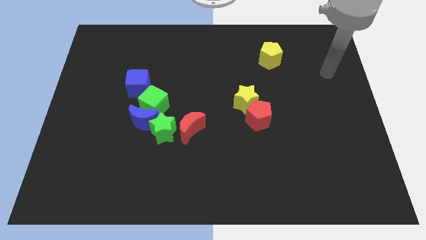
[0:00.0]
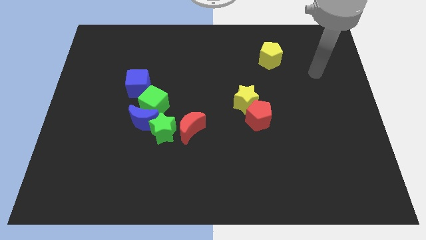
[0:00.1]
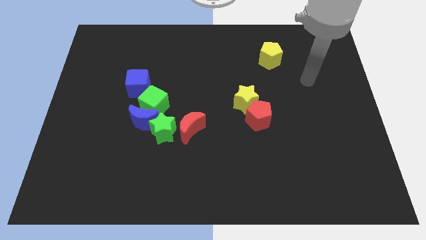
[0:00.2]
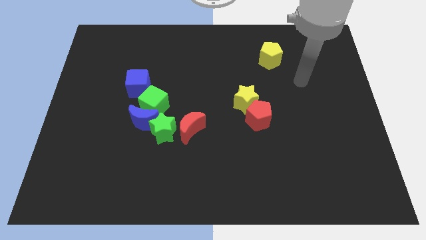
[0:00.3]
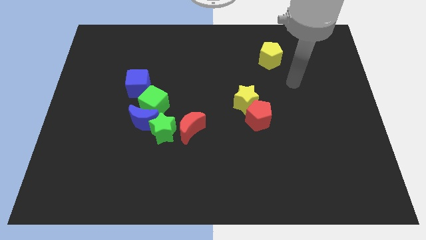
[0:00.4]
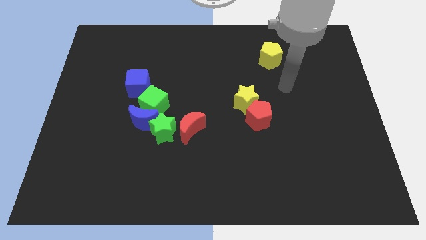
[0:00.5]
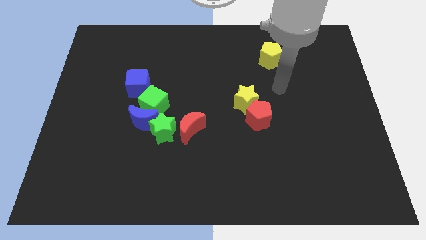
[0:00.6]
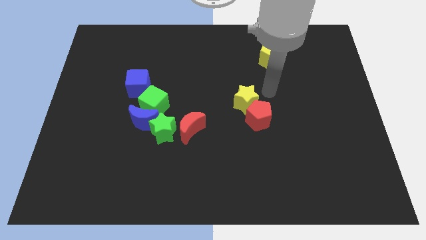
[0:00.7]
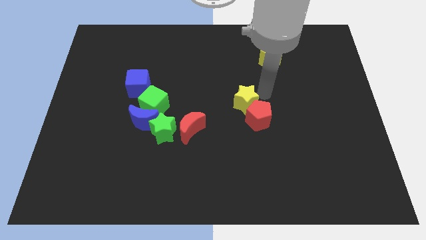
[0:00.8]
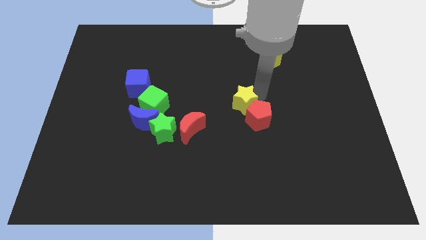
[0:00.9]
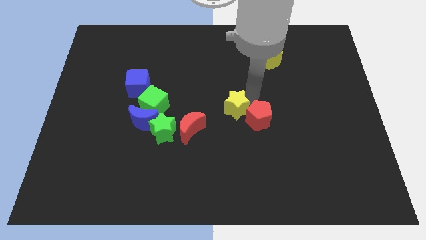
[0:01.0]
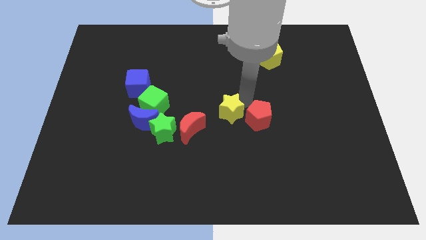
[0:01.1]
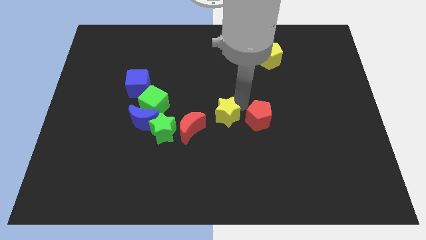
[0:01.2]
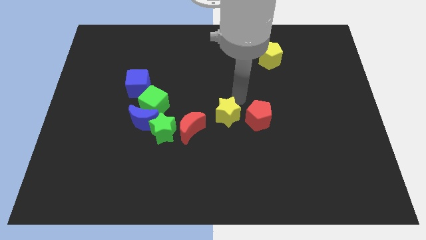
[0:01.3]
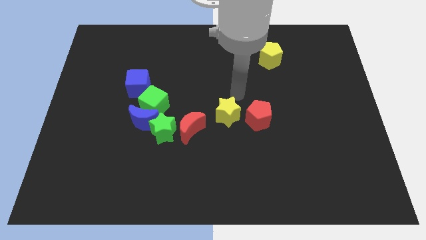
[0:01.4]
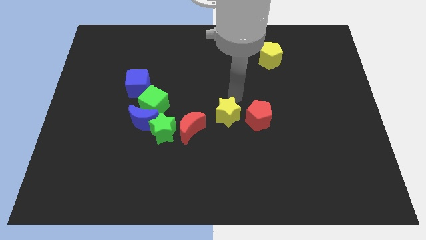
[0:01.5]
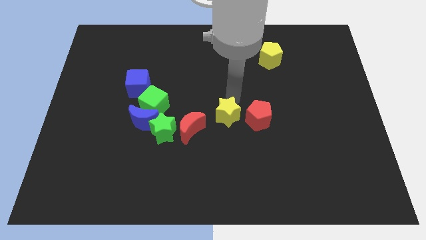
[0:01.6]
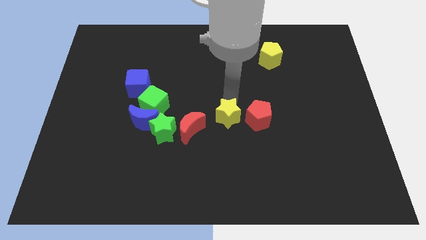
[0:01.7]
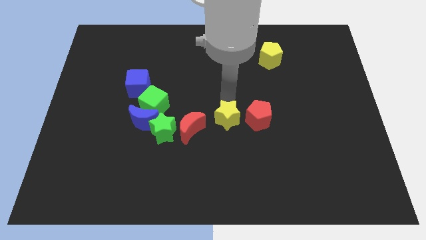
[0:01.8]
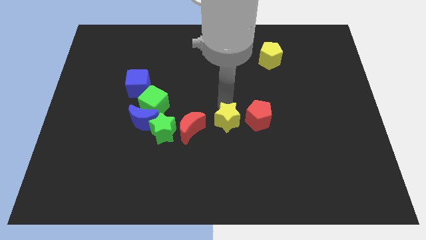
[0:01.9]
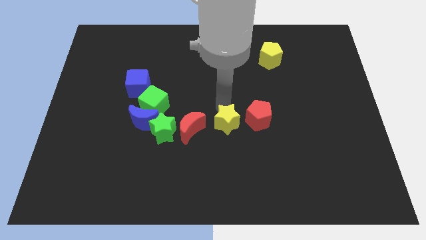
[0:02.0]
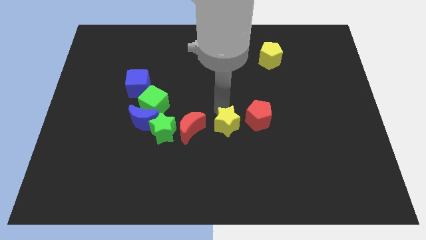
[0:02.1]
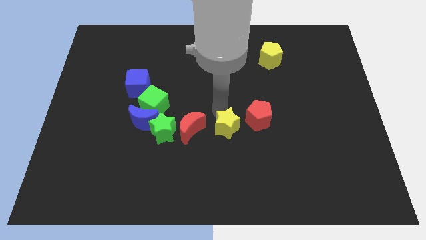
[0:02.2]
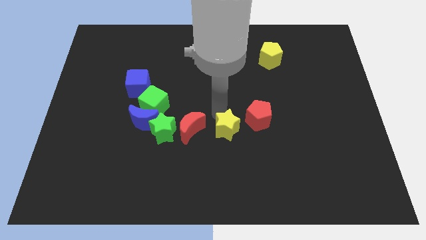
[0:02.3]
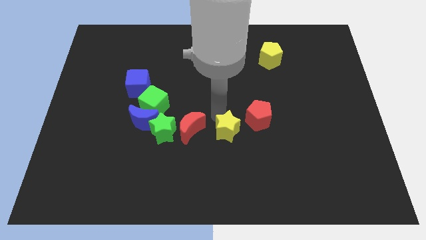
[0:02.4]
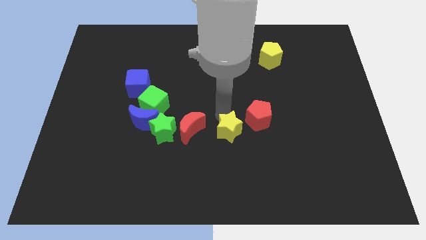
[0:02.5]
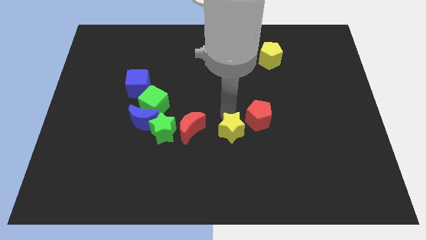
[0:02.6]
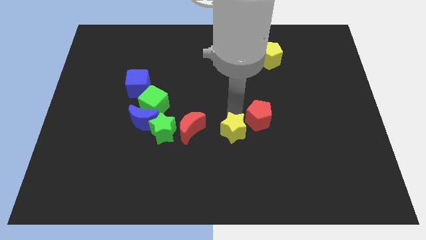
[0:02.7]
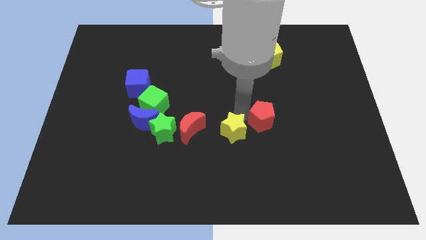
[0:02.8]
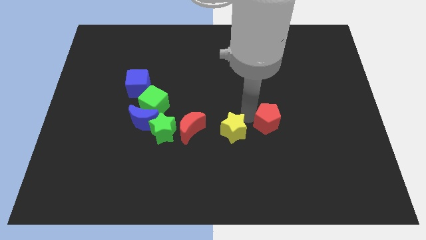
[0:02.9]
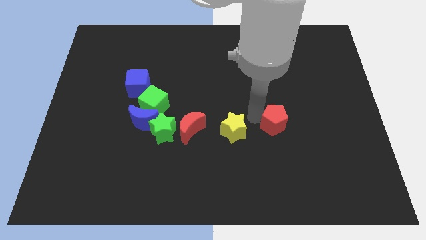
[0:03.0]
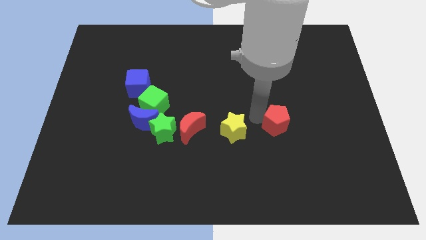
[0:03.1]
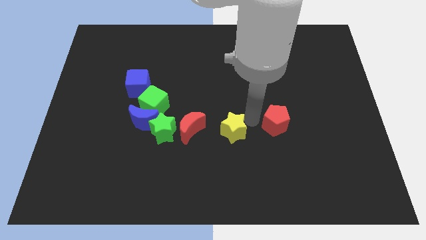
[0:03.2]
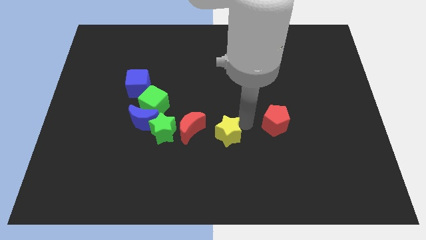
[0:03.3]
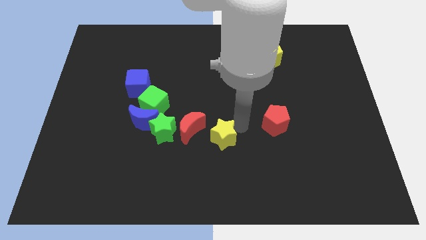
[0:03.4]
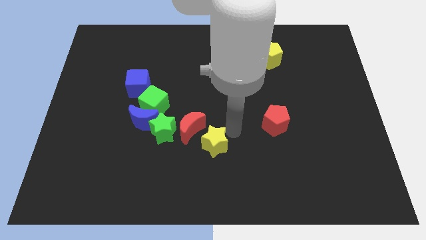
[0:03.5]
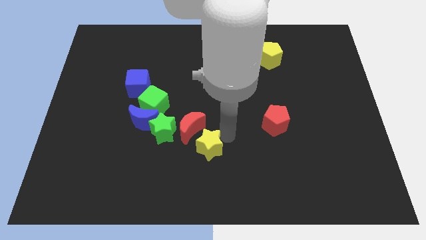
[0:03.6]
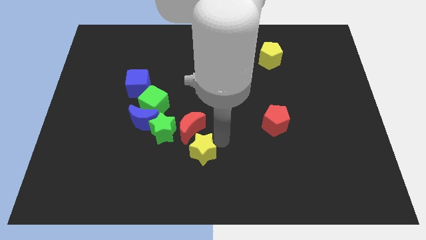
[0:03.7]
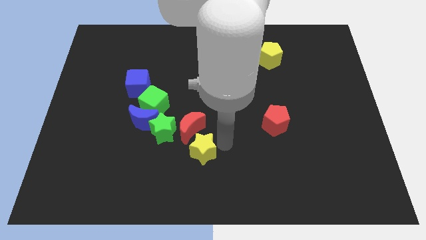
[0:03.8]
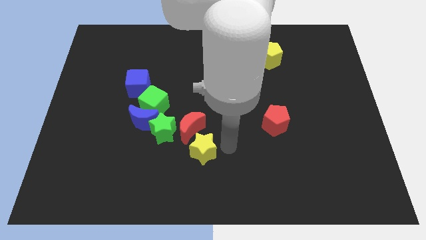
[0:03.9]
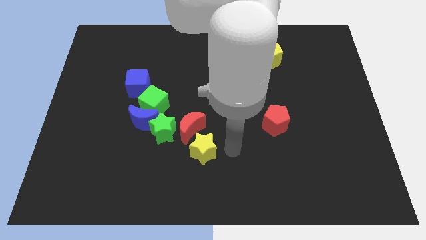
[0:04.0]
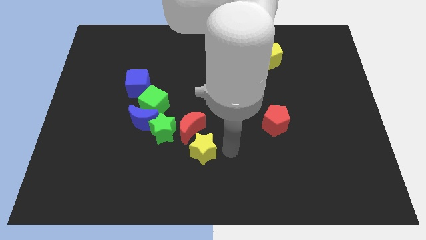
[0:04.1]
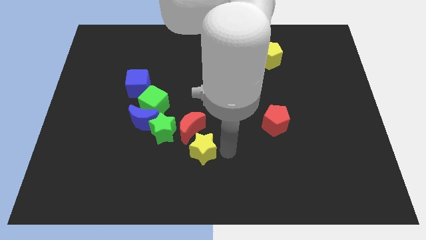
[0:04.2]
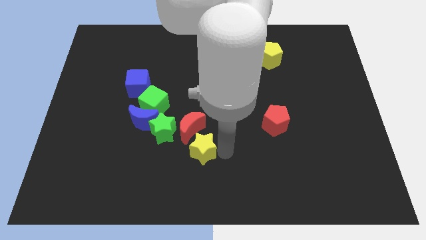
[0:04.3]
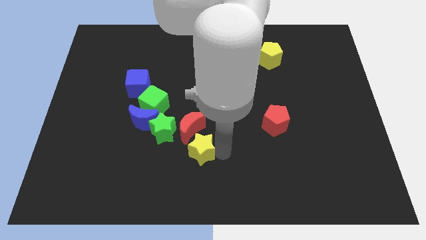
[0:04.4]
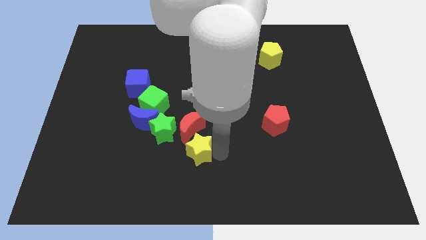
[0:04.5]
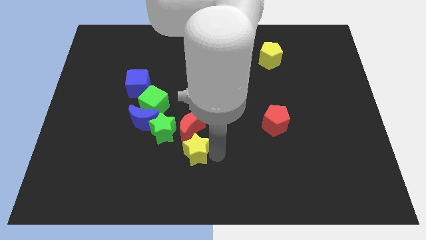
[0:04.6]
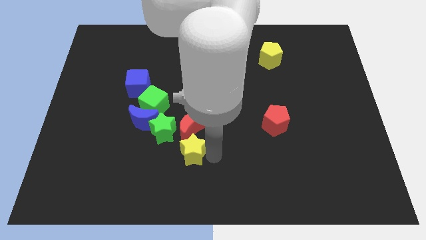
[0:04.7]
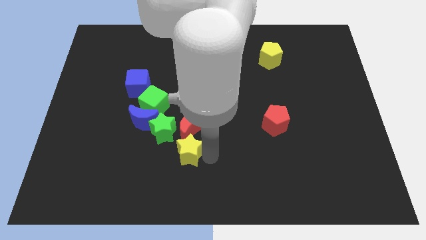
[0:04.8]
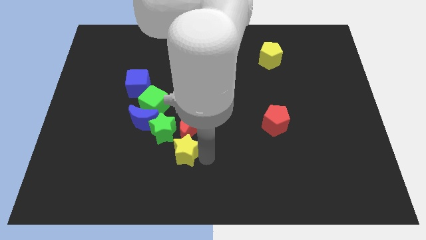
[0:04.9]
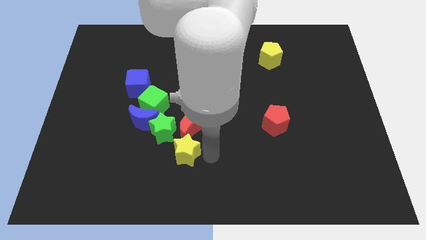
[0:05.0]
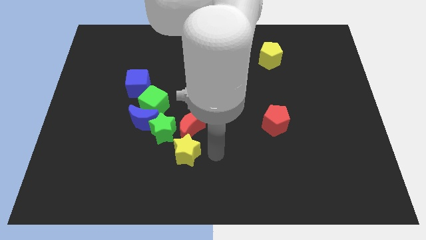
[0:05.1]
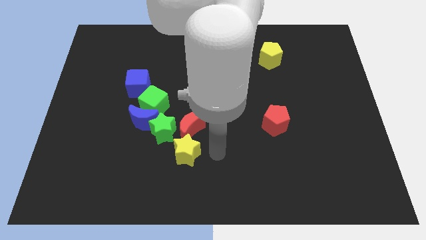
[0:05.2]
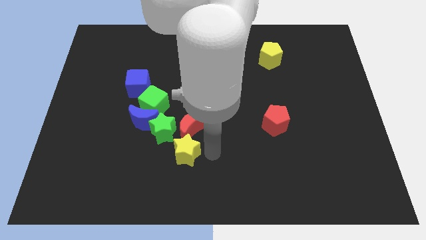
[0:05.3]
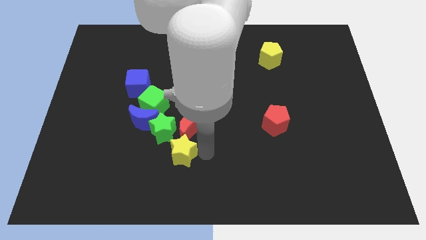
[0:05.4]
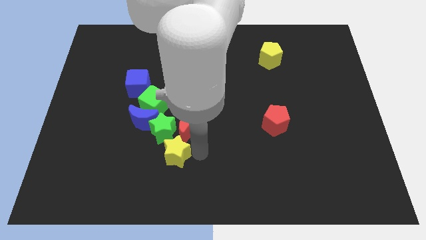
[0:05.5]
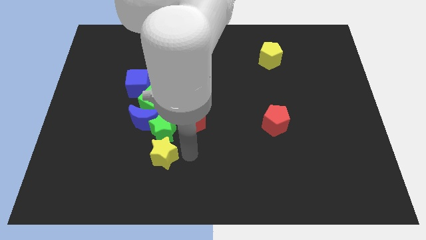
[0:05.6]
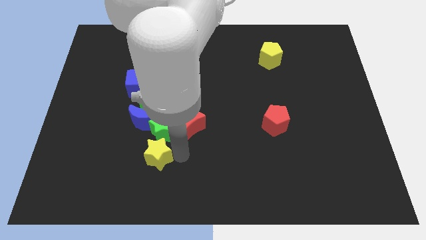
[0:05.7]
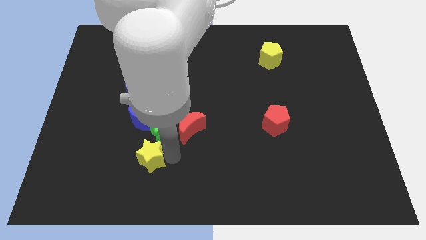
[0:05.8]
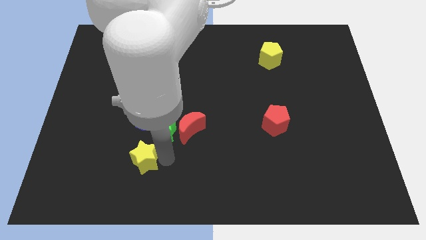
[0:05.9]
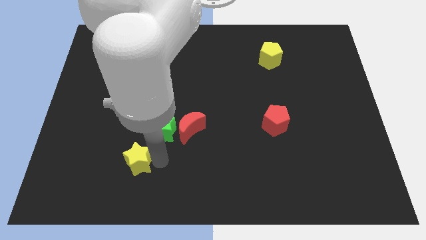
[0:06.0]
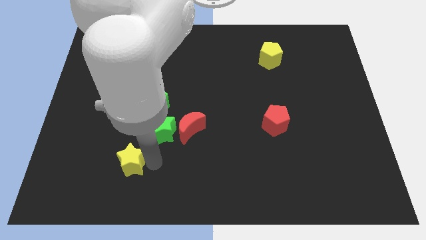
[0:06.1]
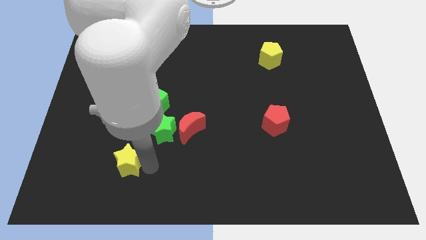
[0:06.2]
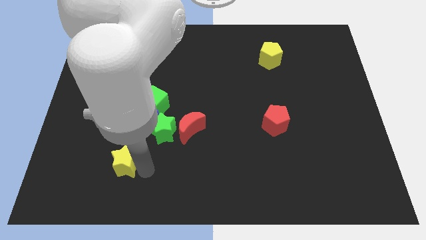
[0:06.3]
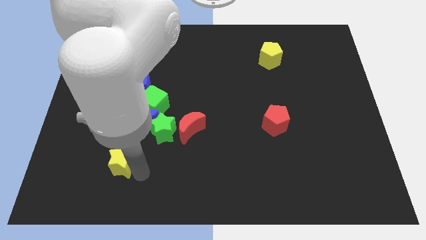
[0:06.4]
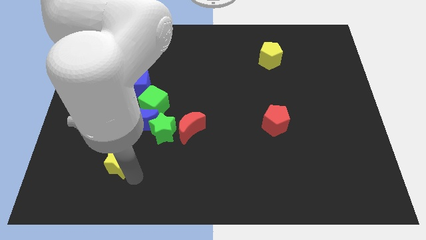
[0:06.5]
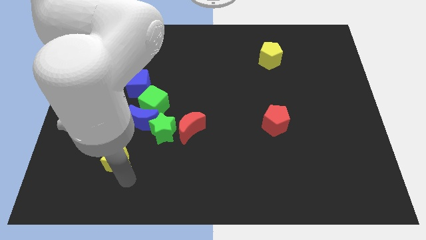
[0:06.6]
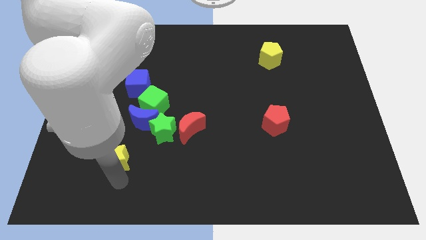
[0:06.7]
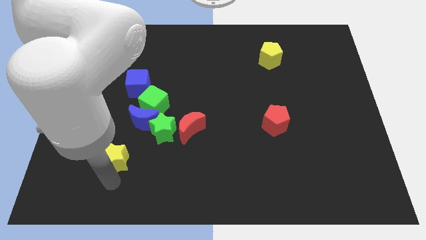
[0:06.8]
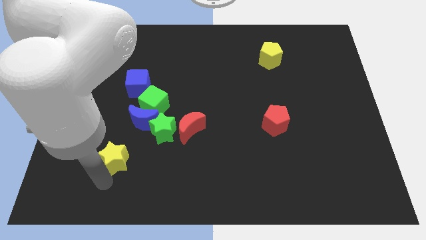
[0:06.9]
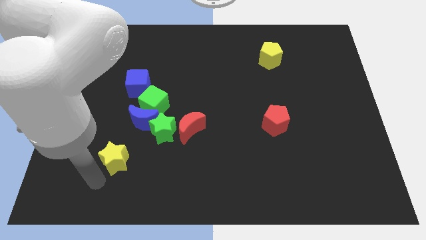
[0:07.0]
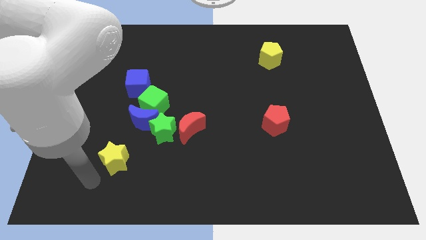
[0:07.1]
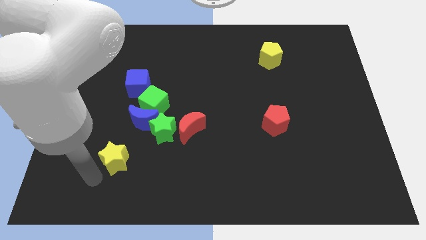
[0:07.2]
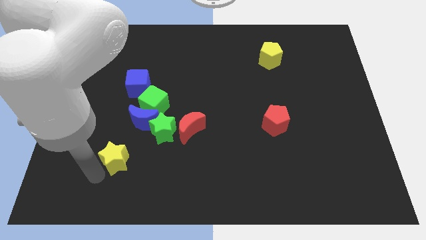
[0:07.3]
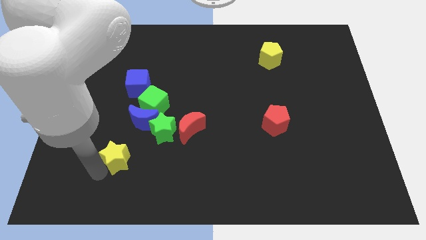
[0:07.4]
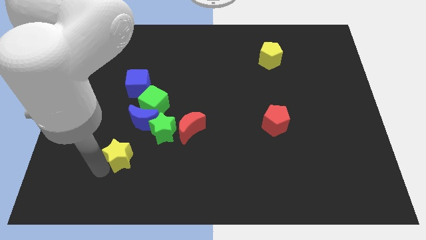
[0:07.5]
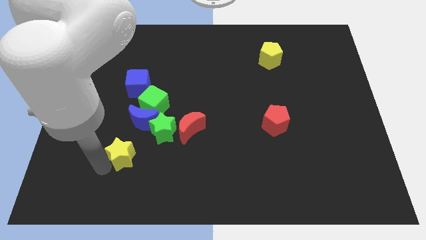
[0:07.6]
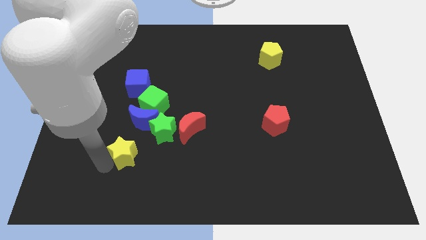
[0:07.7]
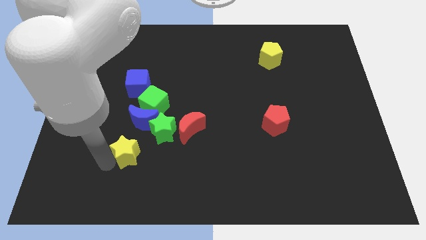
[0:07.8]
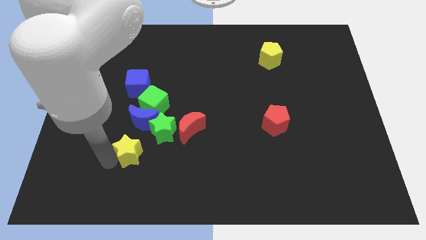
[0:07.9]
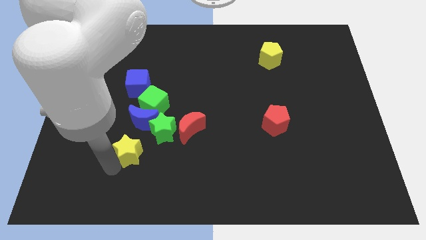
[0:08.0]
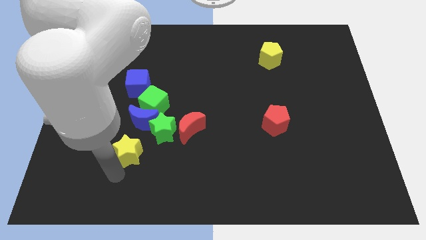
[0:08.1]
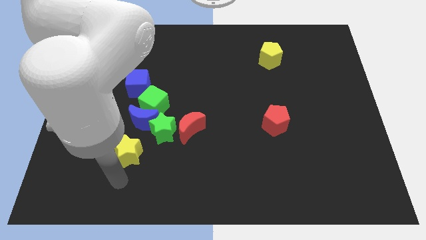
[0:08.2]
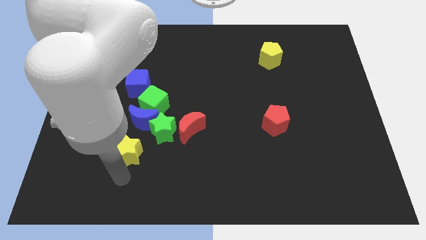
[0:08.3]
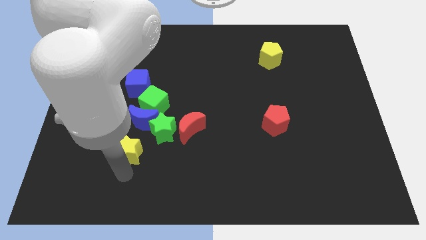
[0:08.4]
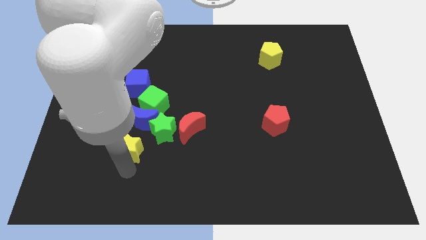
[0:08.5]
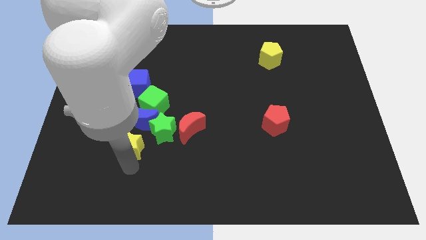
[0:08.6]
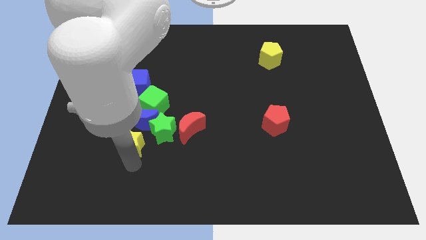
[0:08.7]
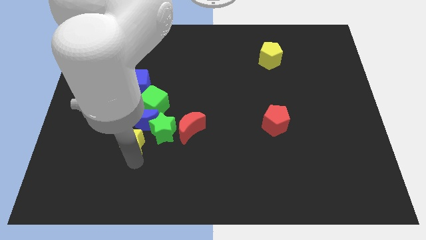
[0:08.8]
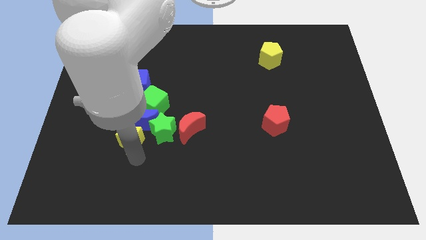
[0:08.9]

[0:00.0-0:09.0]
slide the yellow star towards the blue moon
